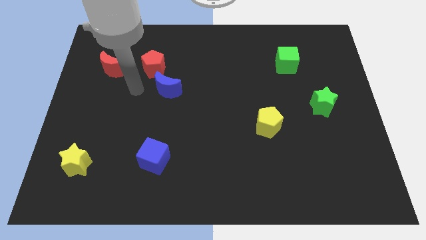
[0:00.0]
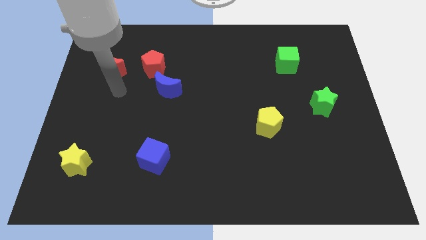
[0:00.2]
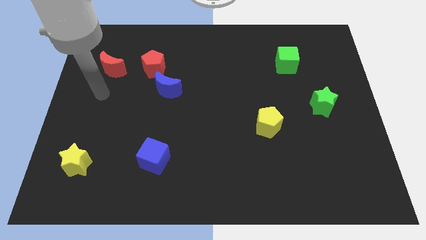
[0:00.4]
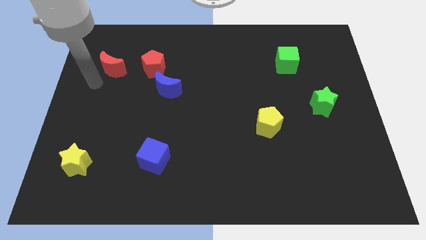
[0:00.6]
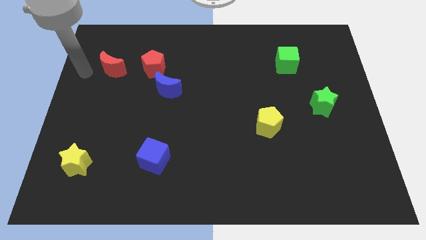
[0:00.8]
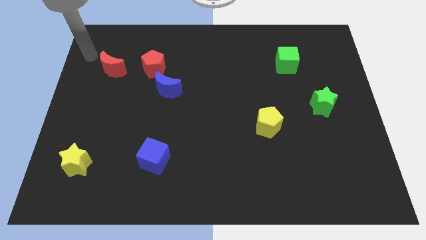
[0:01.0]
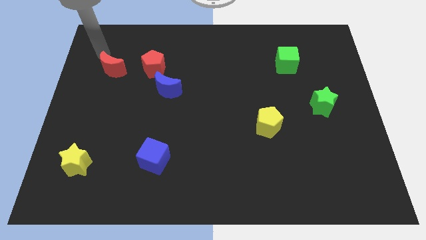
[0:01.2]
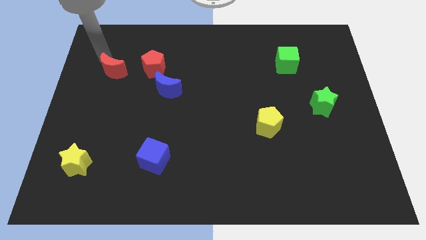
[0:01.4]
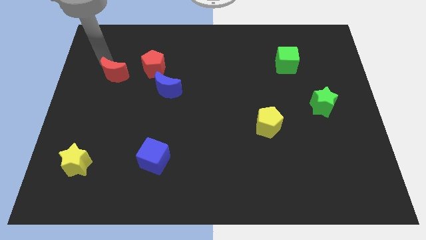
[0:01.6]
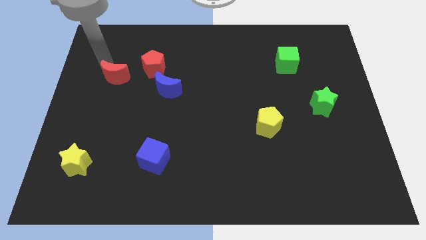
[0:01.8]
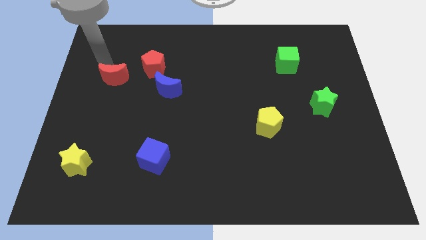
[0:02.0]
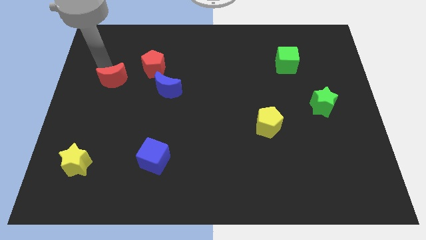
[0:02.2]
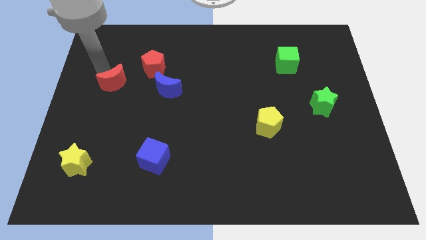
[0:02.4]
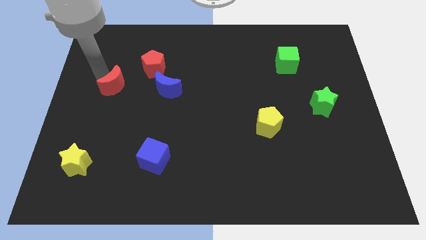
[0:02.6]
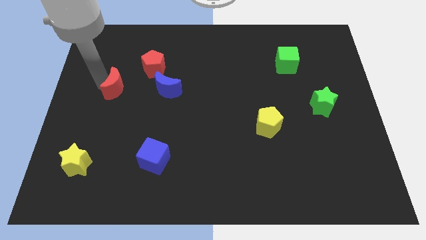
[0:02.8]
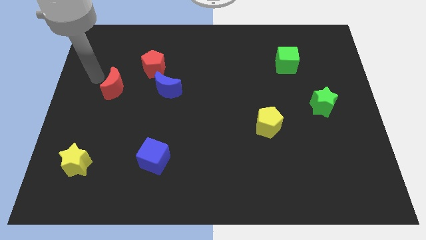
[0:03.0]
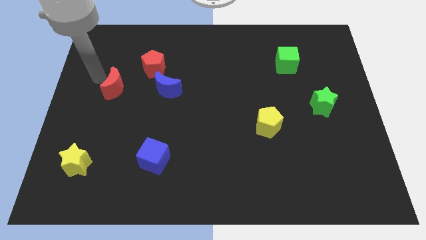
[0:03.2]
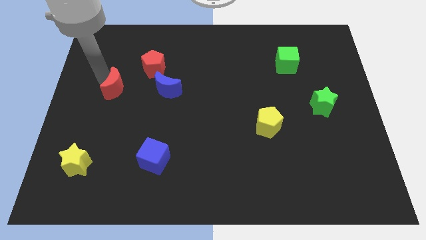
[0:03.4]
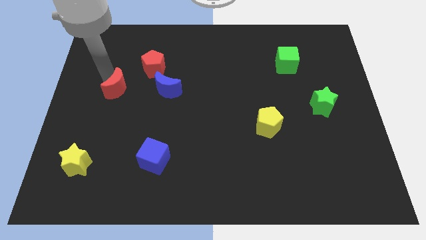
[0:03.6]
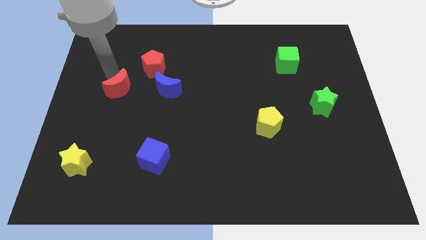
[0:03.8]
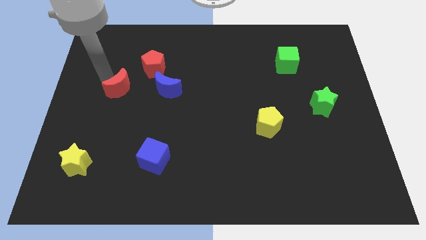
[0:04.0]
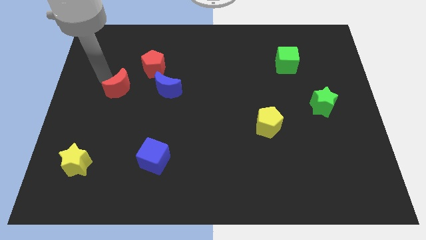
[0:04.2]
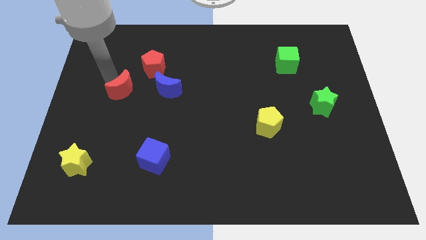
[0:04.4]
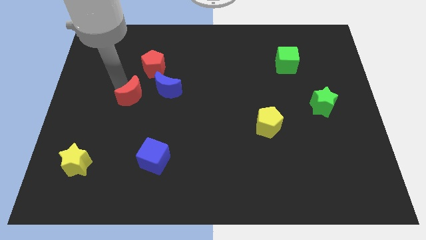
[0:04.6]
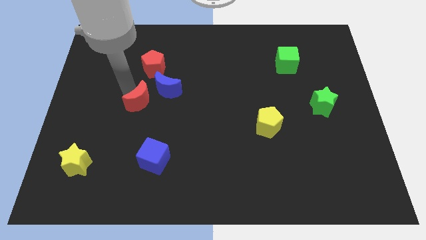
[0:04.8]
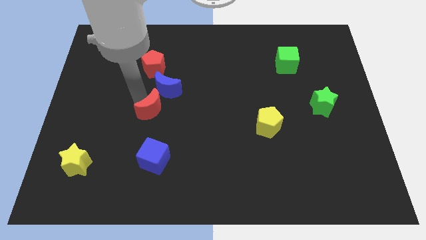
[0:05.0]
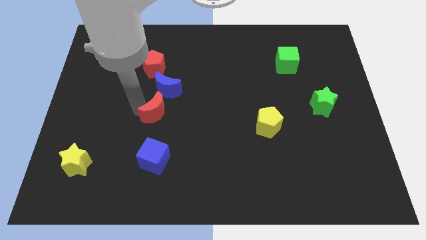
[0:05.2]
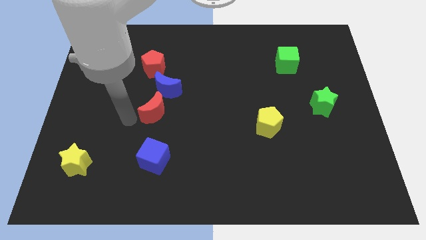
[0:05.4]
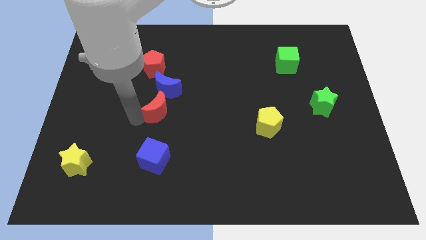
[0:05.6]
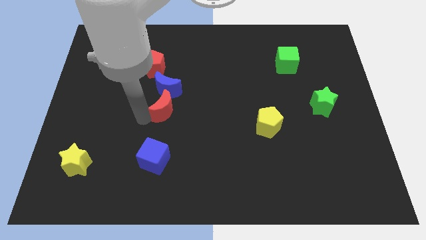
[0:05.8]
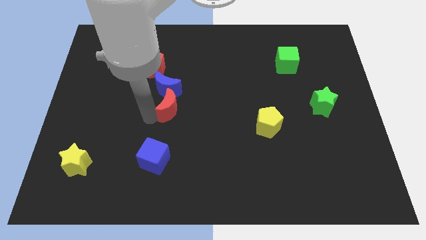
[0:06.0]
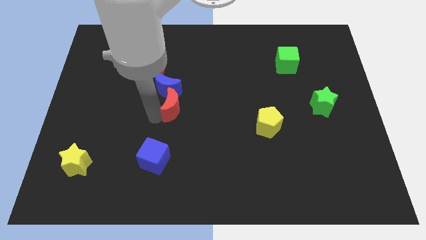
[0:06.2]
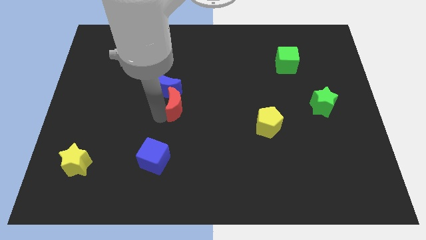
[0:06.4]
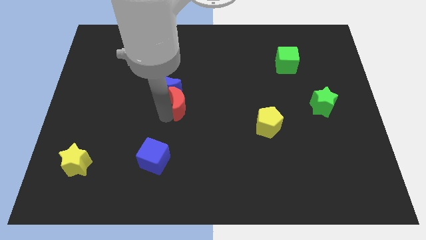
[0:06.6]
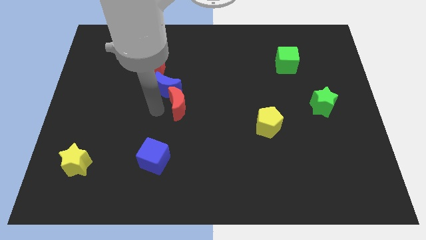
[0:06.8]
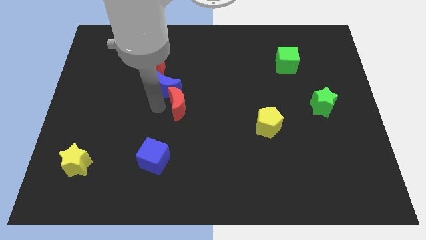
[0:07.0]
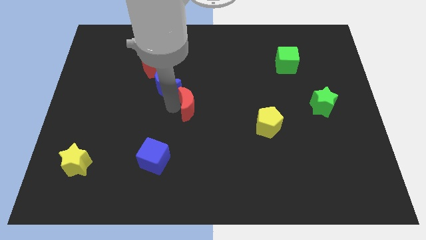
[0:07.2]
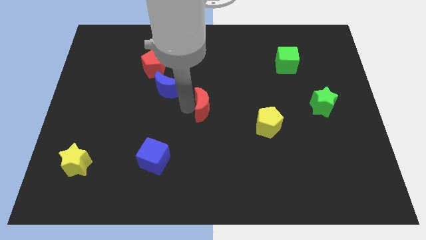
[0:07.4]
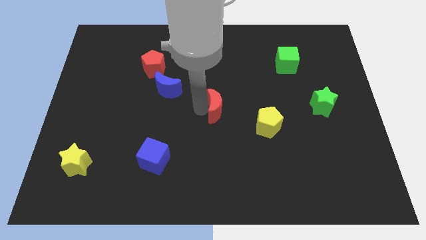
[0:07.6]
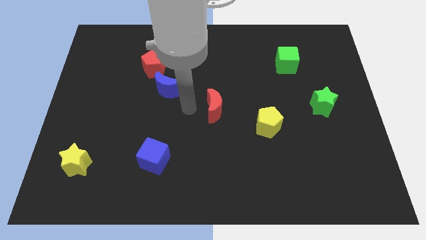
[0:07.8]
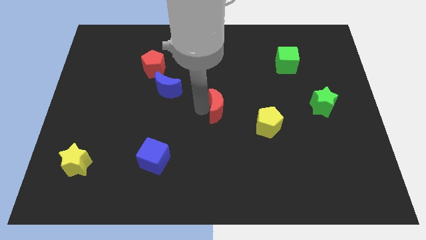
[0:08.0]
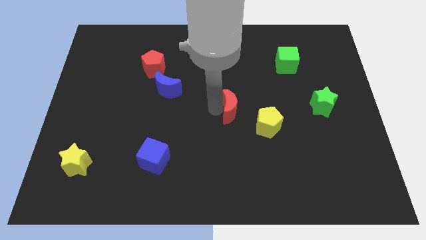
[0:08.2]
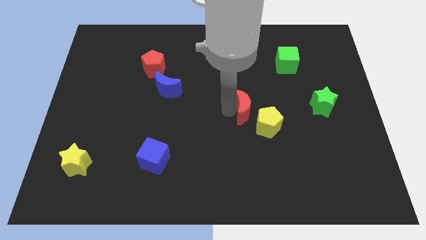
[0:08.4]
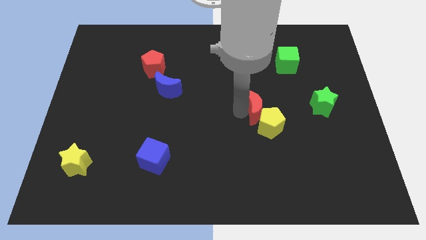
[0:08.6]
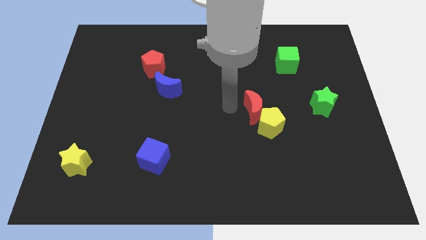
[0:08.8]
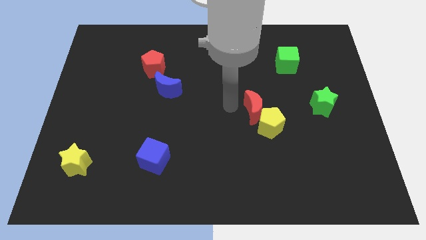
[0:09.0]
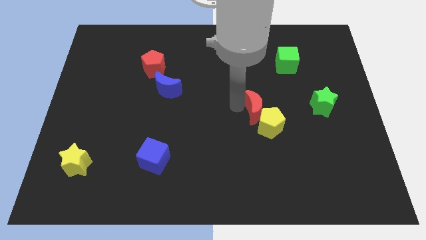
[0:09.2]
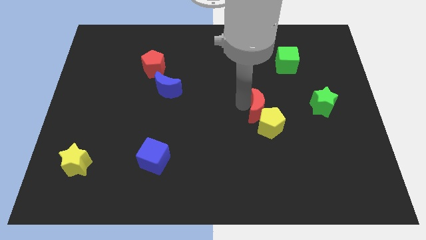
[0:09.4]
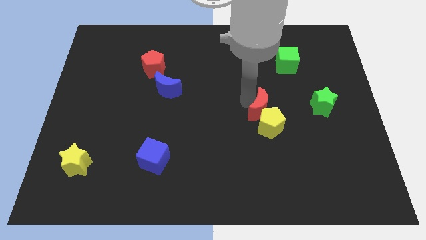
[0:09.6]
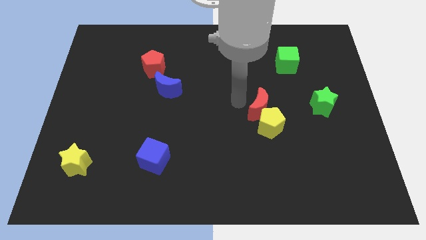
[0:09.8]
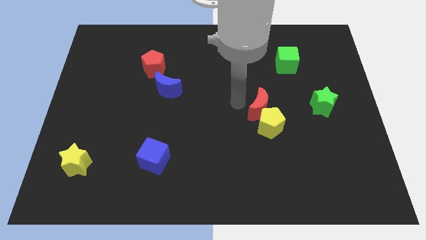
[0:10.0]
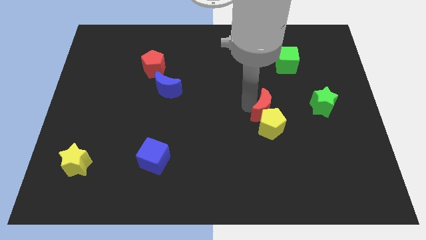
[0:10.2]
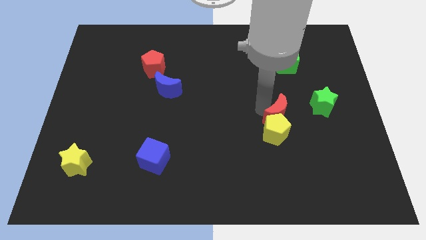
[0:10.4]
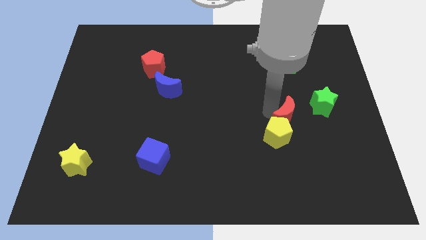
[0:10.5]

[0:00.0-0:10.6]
push the red moon to the bottom left of the green star
